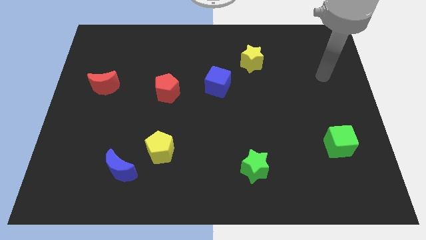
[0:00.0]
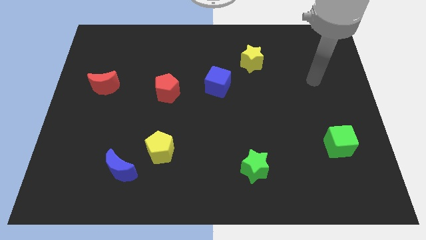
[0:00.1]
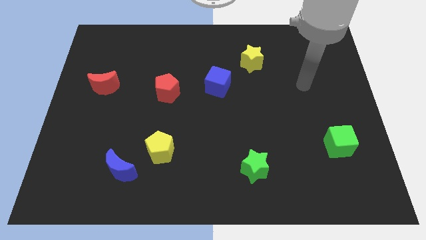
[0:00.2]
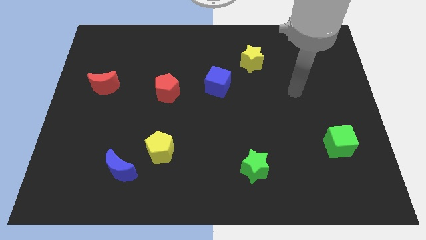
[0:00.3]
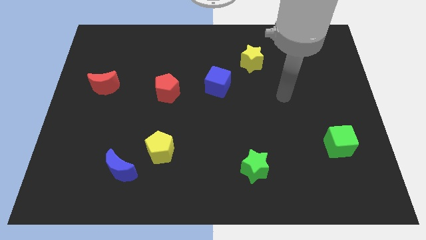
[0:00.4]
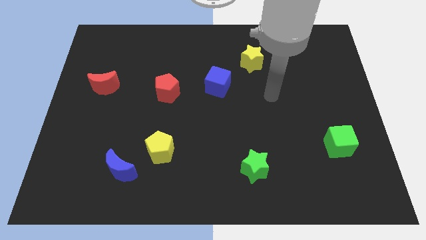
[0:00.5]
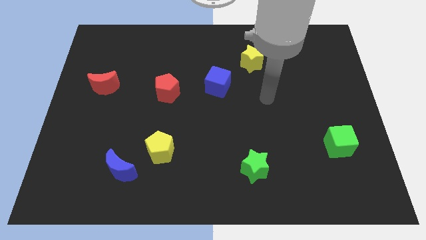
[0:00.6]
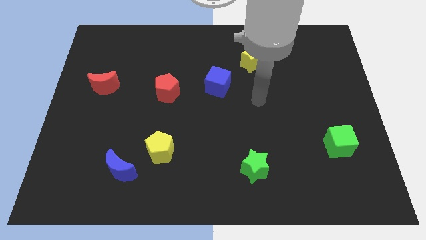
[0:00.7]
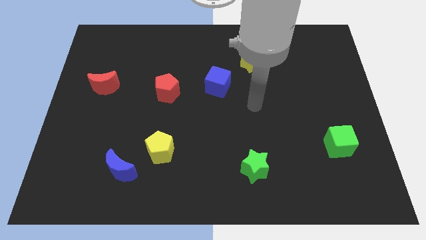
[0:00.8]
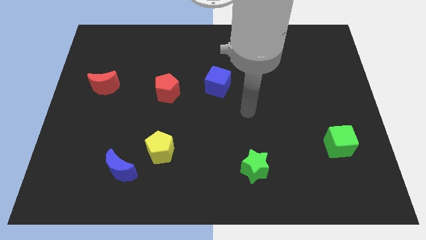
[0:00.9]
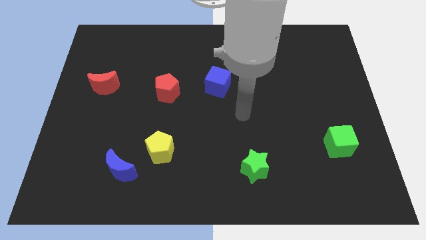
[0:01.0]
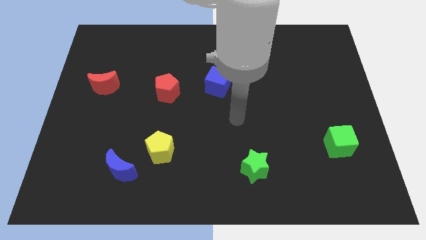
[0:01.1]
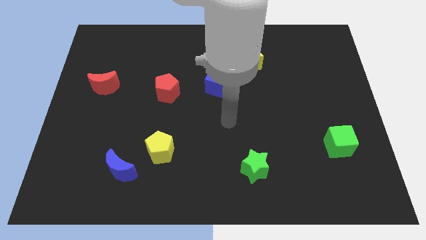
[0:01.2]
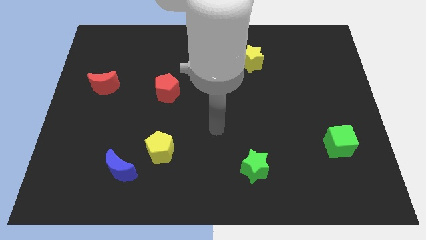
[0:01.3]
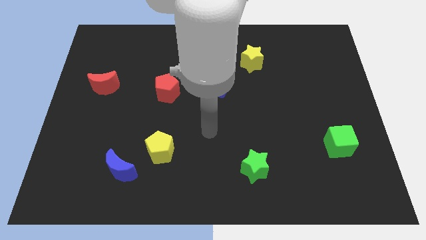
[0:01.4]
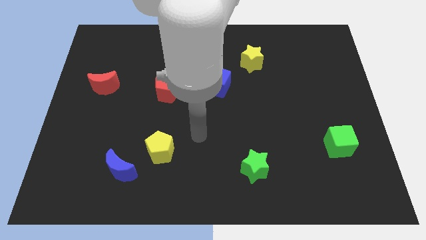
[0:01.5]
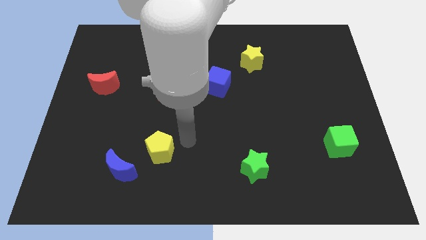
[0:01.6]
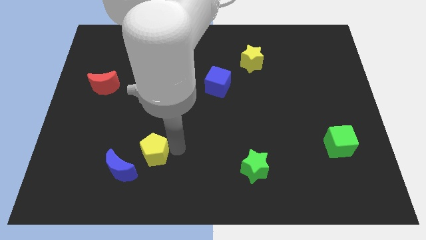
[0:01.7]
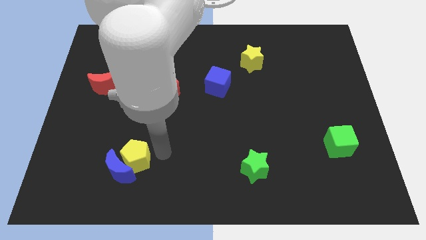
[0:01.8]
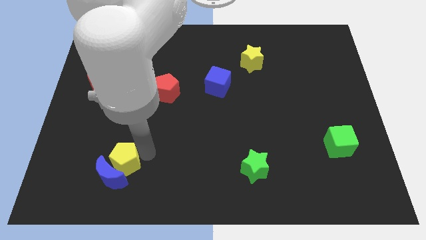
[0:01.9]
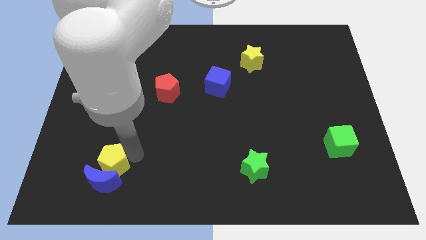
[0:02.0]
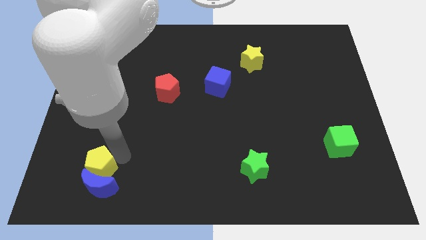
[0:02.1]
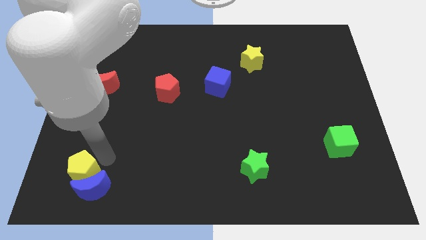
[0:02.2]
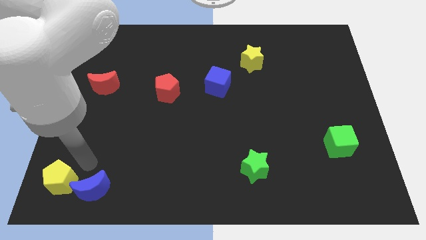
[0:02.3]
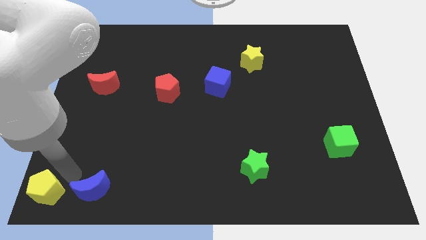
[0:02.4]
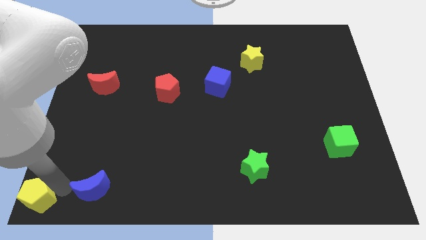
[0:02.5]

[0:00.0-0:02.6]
pull the blue moon apart from the yellow pentagon

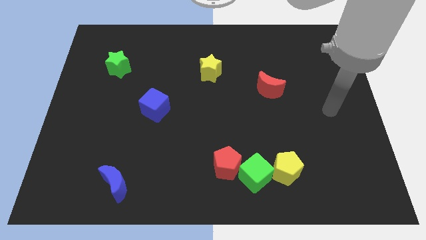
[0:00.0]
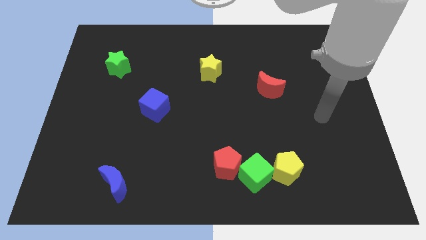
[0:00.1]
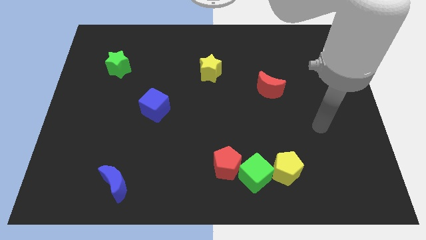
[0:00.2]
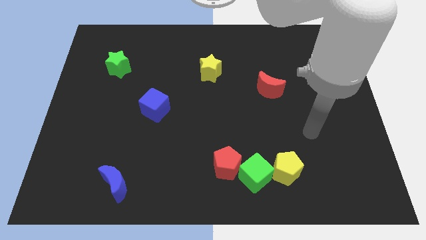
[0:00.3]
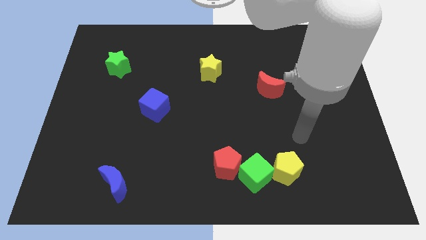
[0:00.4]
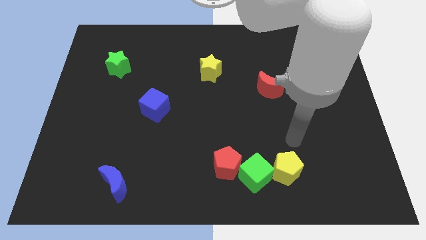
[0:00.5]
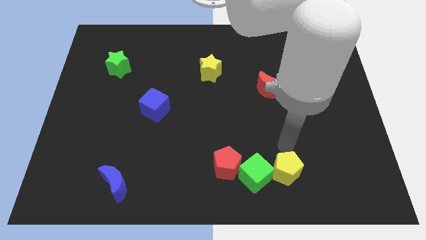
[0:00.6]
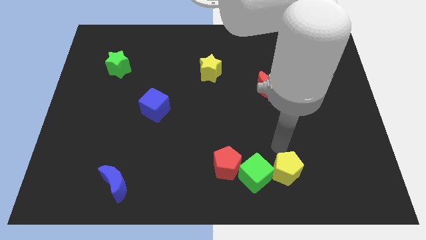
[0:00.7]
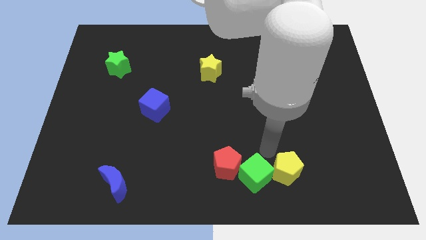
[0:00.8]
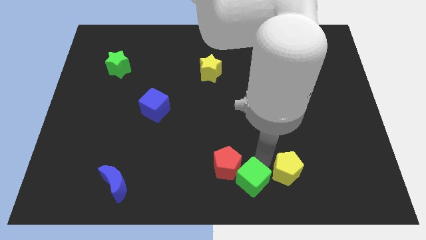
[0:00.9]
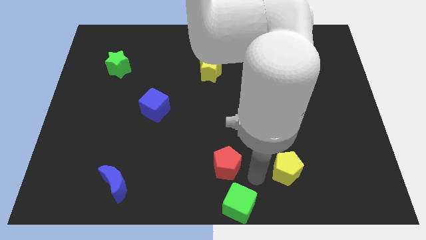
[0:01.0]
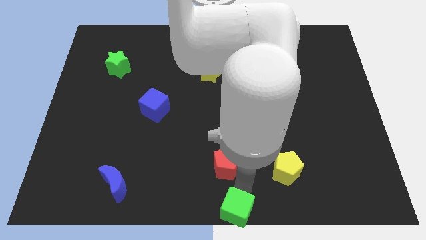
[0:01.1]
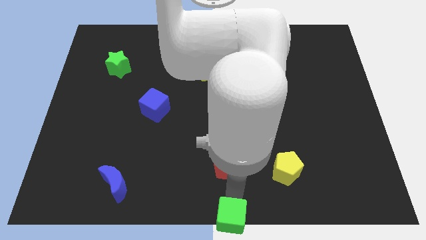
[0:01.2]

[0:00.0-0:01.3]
separate the red pentagon from the green cube

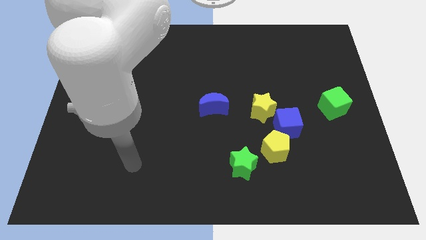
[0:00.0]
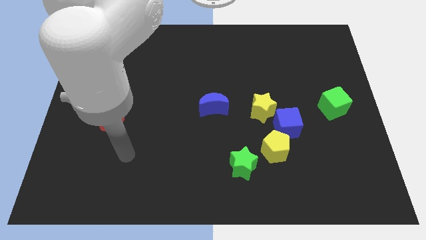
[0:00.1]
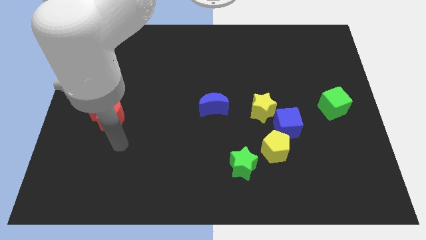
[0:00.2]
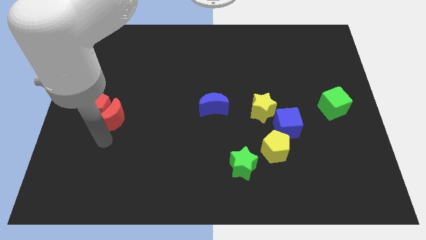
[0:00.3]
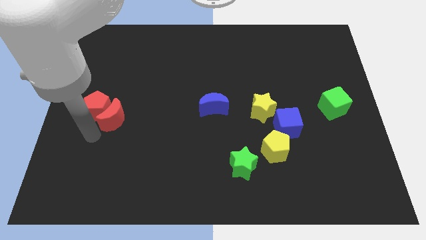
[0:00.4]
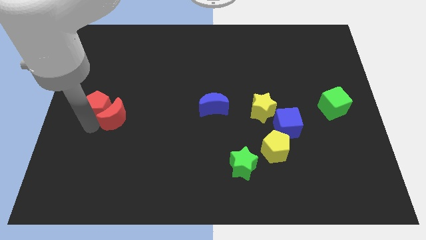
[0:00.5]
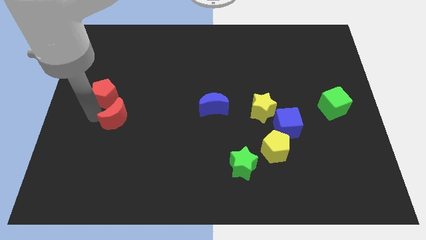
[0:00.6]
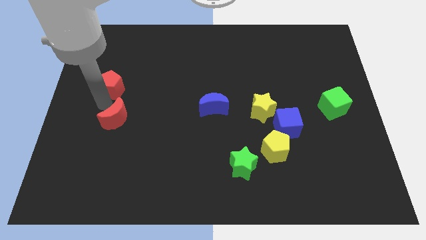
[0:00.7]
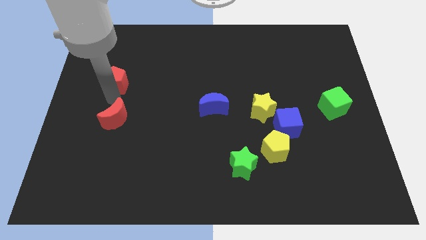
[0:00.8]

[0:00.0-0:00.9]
move the red moon away from the red pentagon

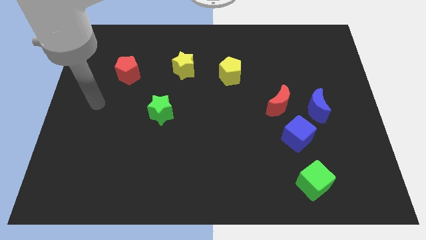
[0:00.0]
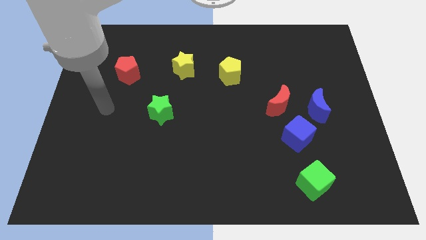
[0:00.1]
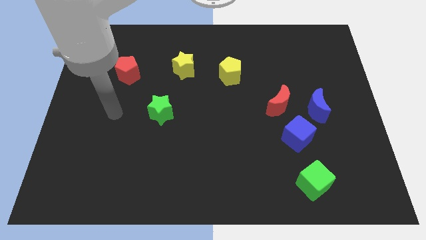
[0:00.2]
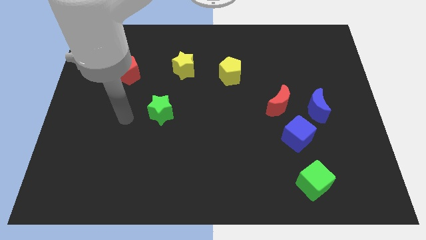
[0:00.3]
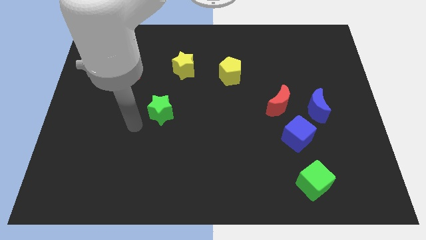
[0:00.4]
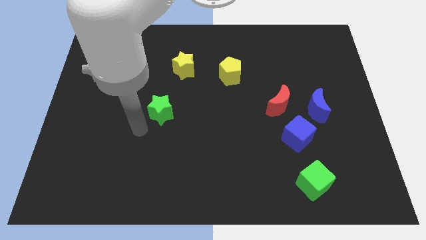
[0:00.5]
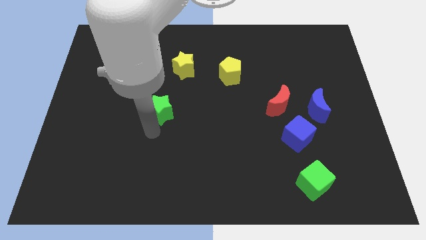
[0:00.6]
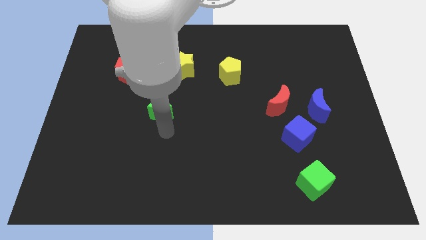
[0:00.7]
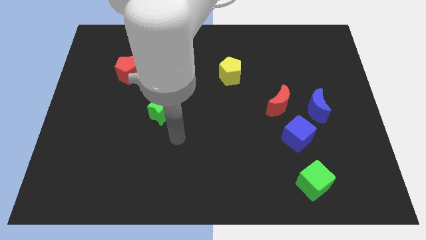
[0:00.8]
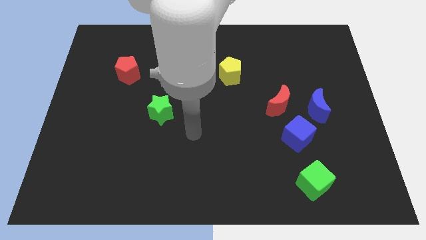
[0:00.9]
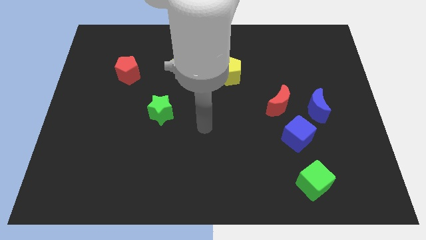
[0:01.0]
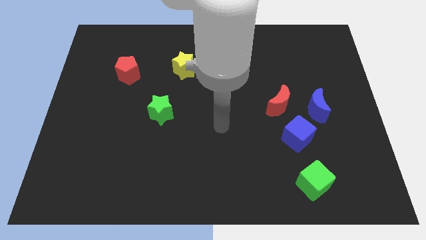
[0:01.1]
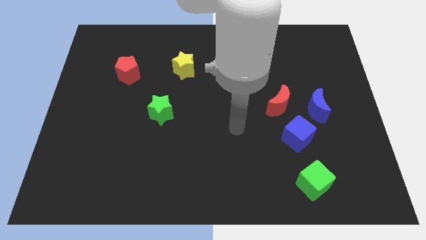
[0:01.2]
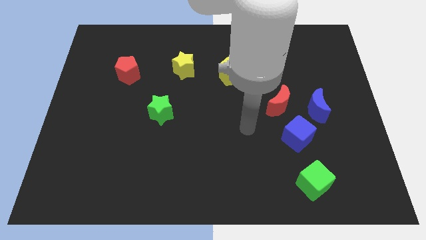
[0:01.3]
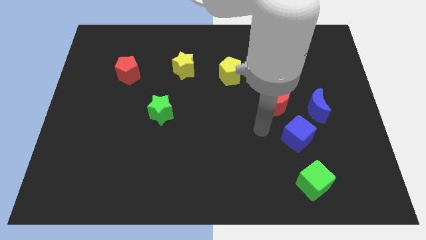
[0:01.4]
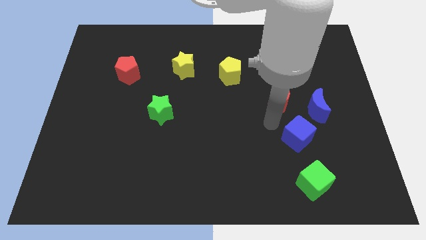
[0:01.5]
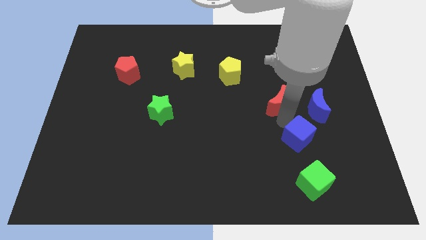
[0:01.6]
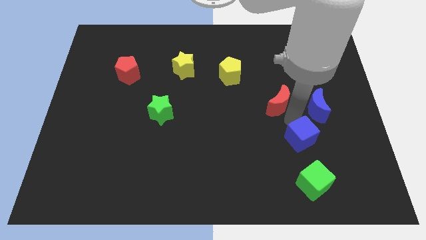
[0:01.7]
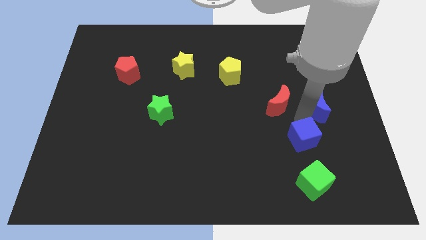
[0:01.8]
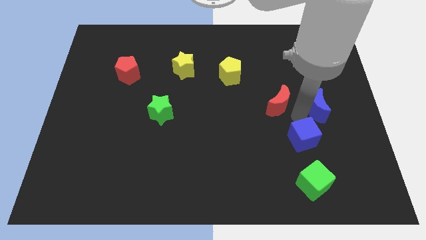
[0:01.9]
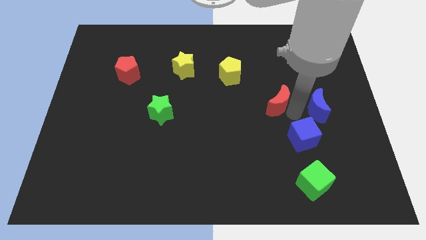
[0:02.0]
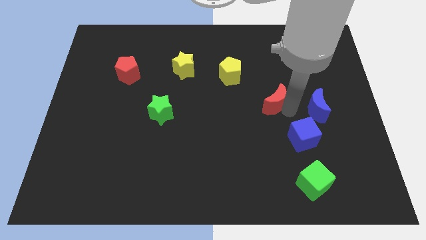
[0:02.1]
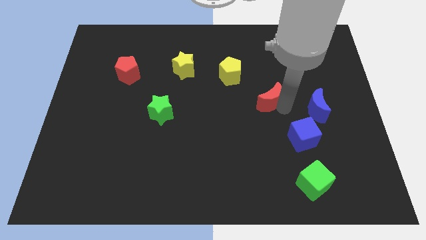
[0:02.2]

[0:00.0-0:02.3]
pull the red moon apart from the blue moon and blue cube

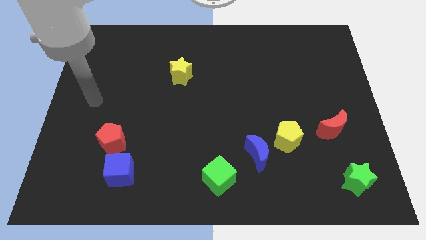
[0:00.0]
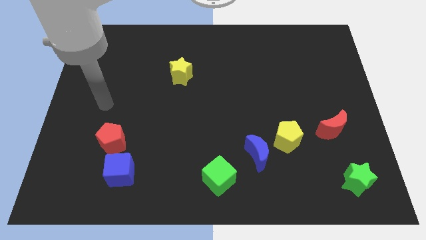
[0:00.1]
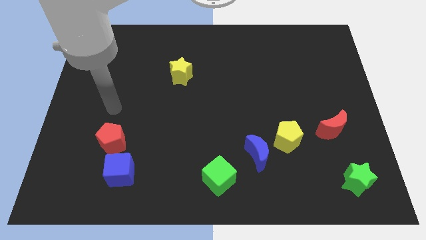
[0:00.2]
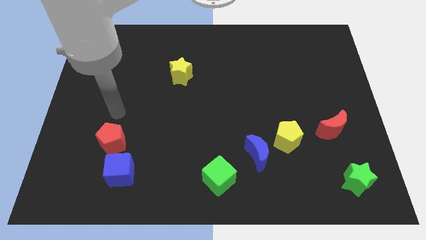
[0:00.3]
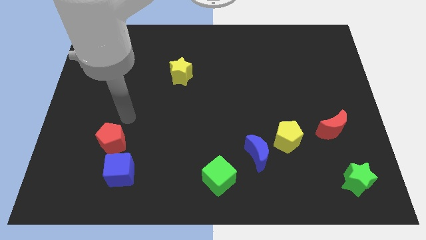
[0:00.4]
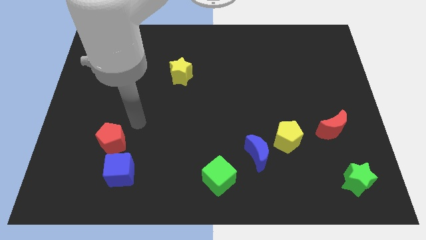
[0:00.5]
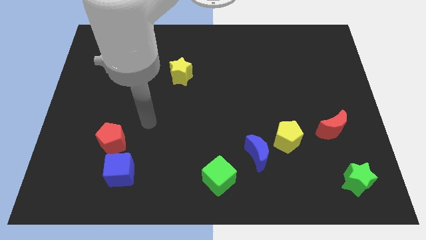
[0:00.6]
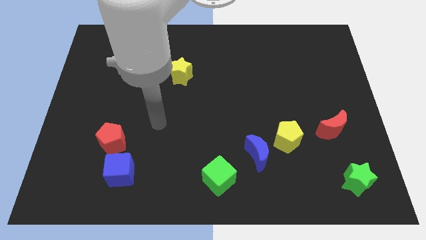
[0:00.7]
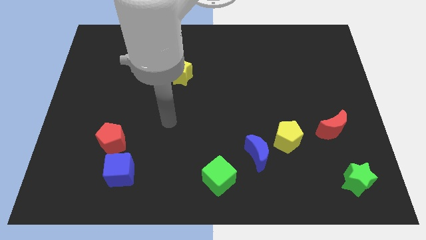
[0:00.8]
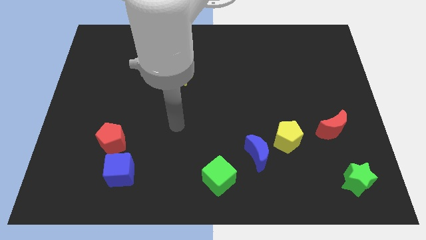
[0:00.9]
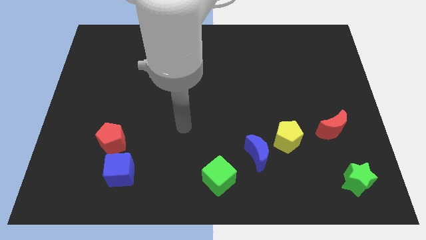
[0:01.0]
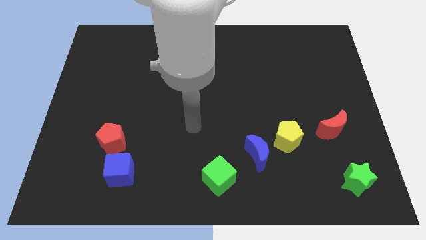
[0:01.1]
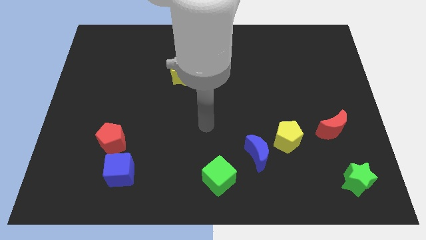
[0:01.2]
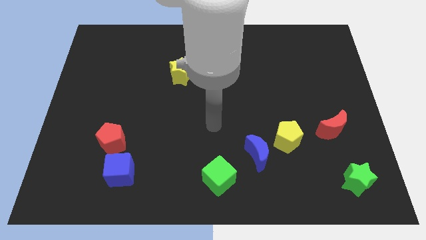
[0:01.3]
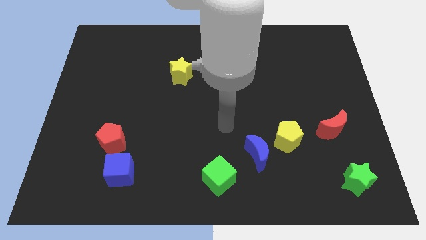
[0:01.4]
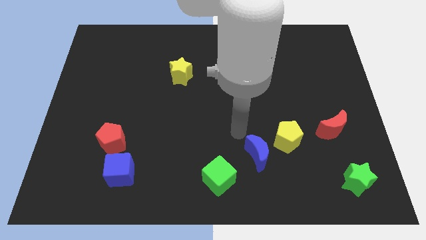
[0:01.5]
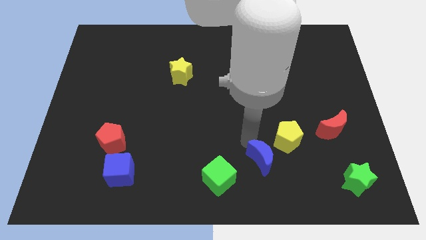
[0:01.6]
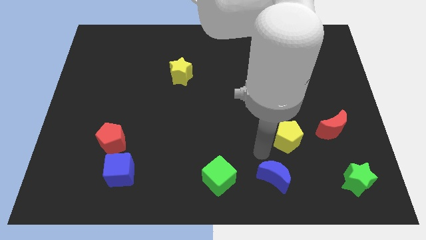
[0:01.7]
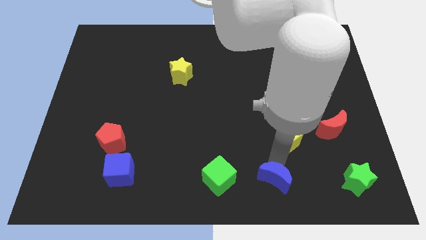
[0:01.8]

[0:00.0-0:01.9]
separate the yellow pentagon from the blue moon

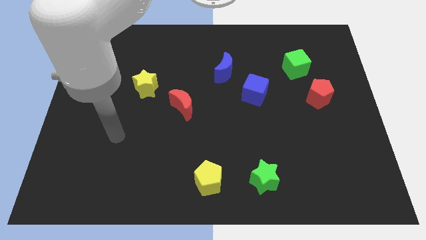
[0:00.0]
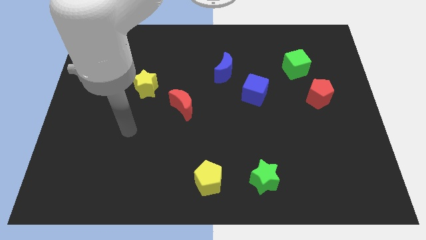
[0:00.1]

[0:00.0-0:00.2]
pull the blue moon apart from the blue cube
